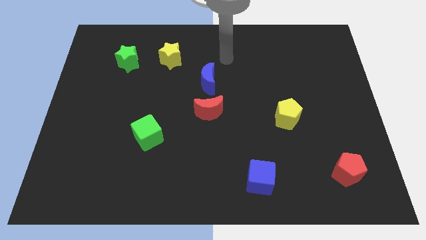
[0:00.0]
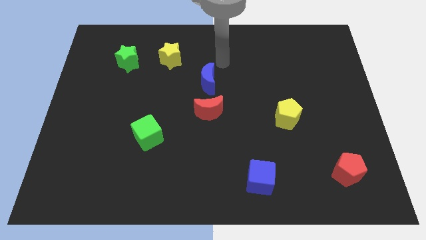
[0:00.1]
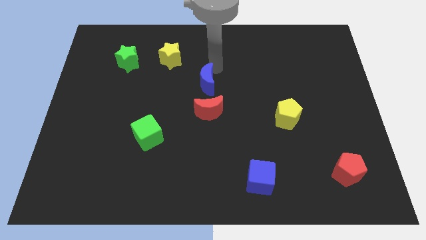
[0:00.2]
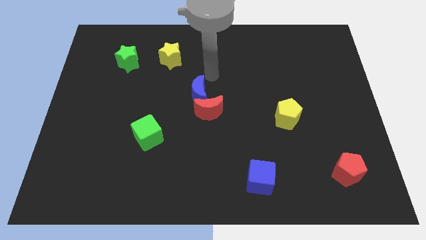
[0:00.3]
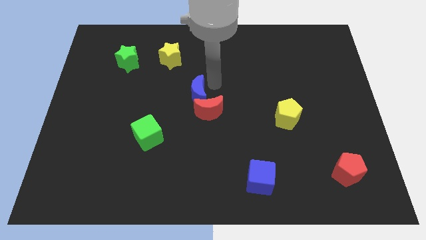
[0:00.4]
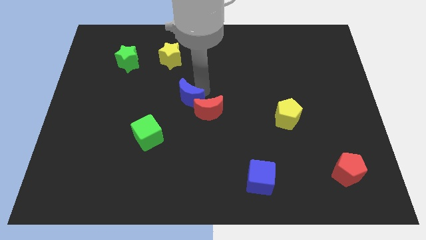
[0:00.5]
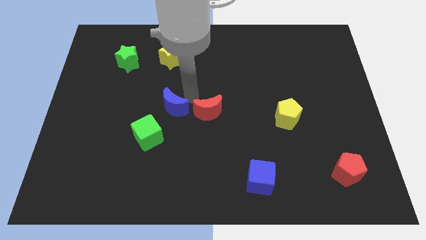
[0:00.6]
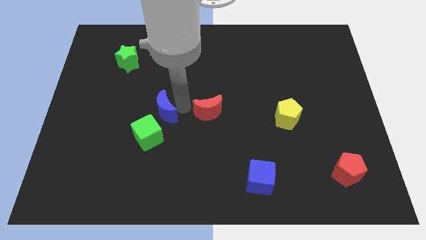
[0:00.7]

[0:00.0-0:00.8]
separate the red moon from the blue moon

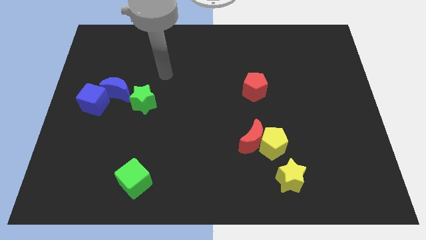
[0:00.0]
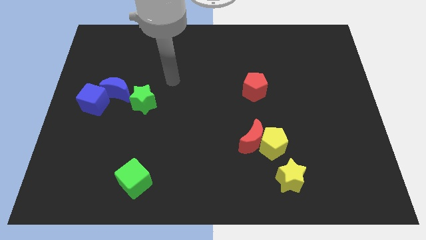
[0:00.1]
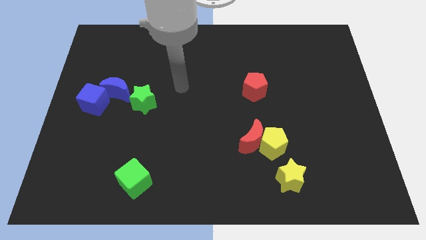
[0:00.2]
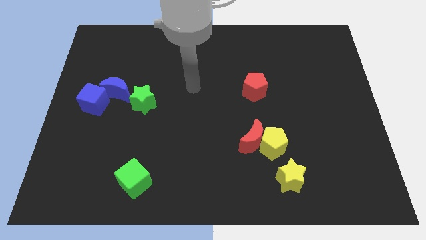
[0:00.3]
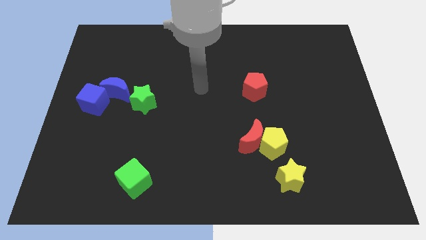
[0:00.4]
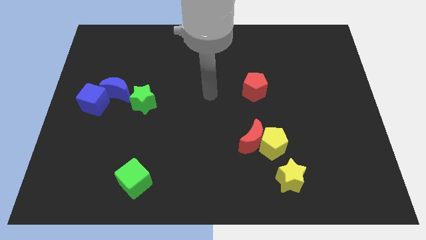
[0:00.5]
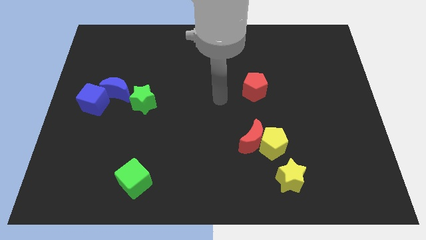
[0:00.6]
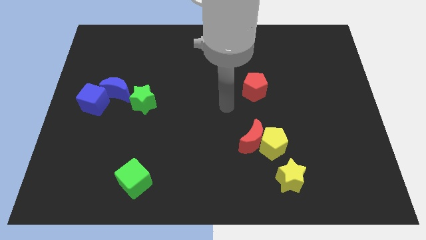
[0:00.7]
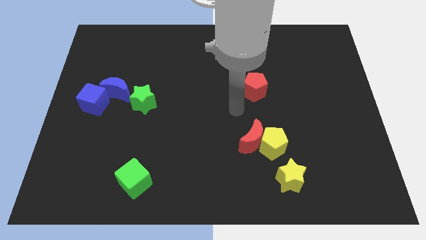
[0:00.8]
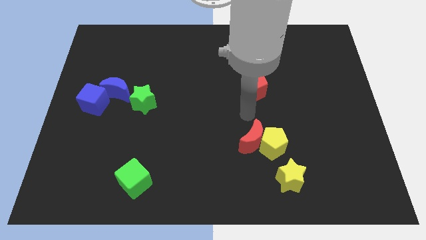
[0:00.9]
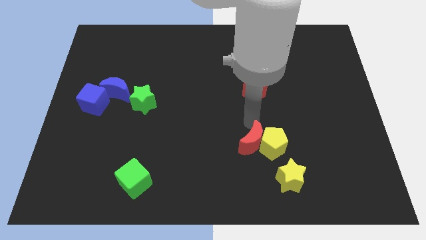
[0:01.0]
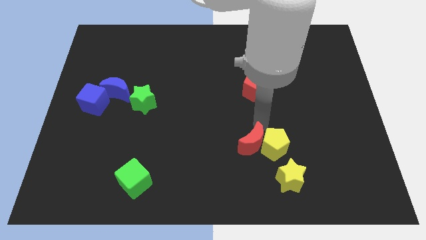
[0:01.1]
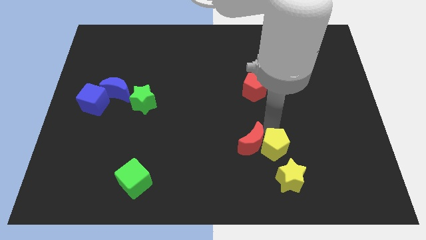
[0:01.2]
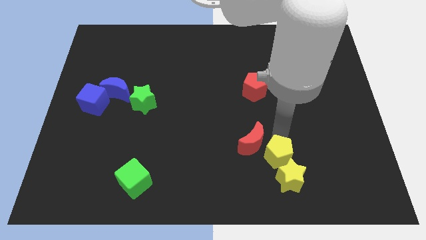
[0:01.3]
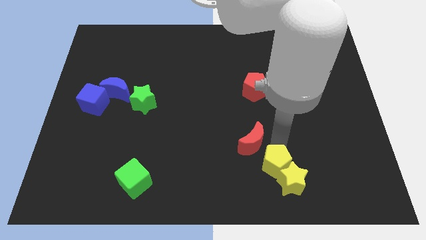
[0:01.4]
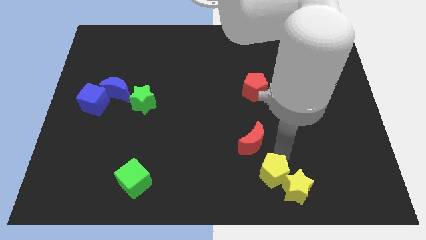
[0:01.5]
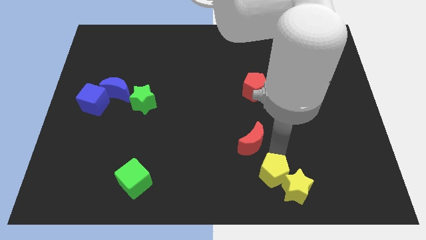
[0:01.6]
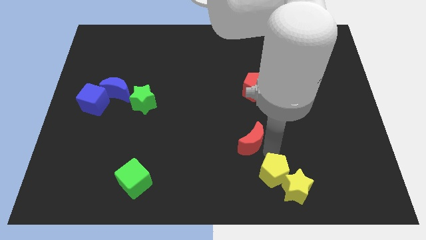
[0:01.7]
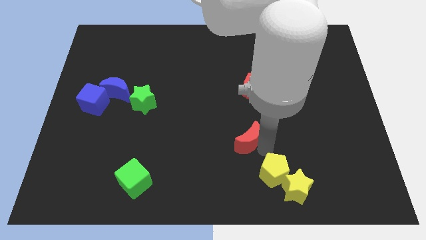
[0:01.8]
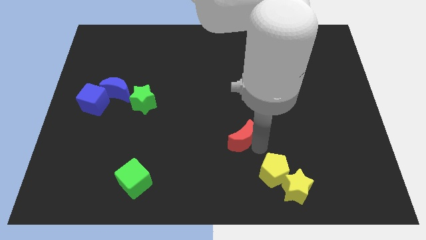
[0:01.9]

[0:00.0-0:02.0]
separate the red moon from the yellow pentagon

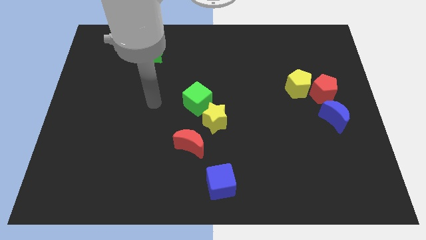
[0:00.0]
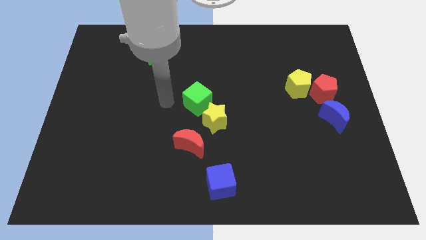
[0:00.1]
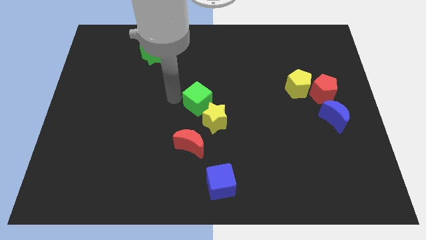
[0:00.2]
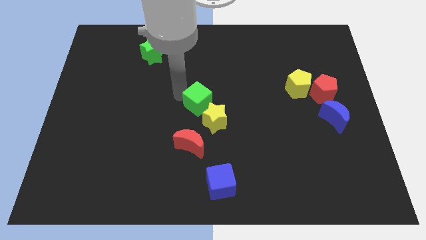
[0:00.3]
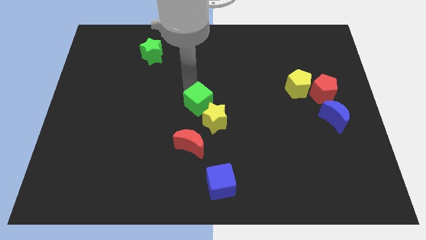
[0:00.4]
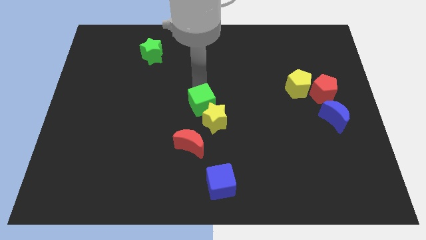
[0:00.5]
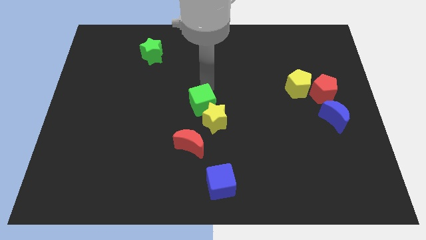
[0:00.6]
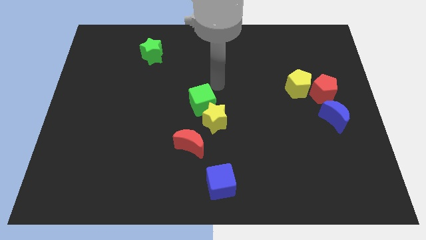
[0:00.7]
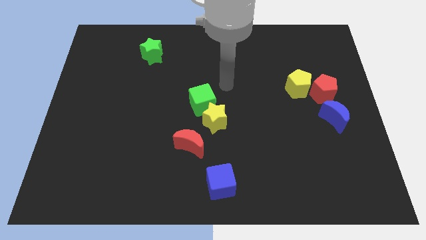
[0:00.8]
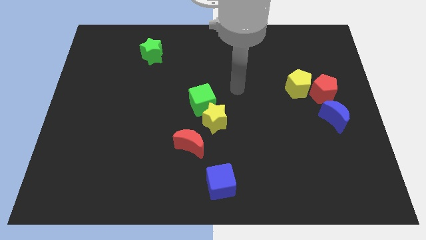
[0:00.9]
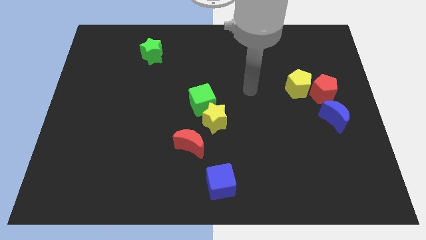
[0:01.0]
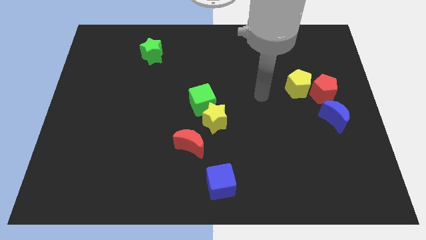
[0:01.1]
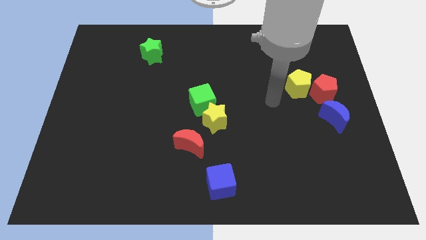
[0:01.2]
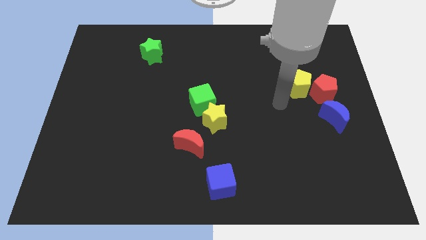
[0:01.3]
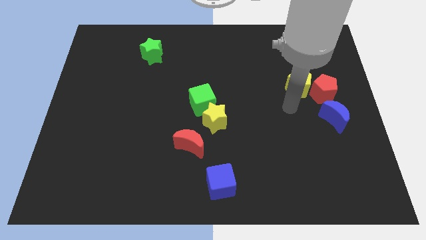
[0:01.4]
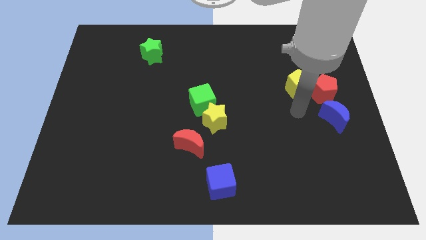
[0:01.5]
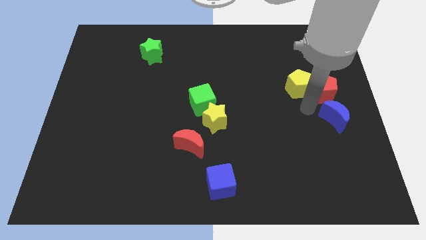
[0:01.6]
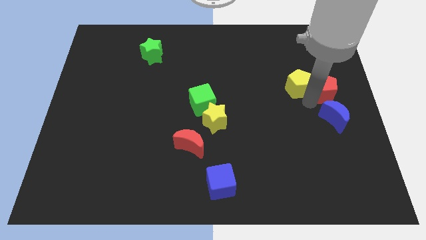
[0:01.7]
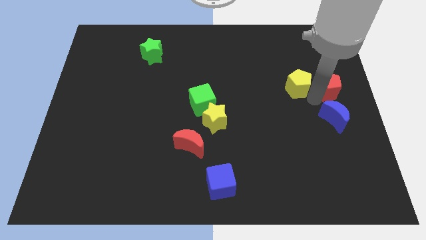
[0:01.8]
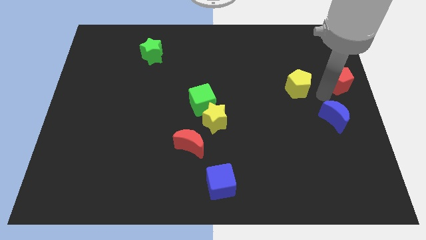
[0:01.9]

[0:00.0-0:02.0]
separate the yellow pentagon from the red pentagon

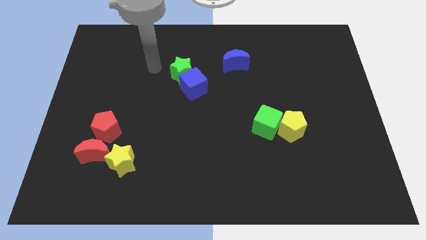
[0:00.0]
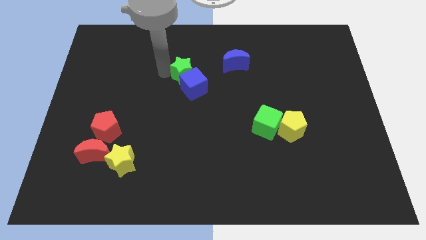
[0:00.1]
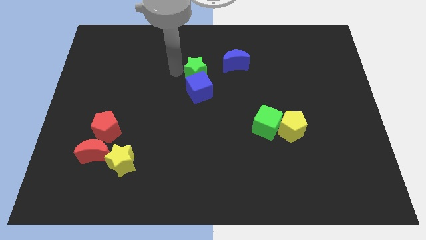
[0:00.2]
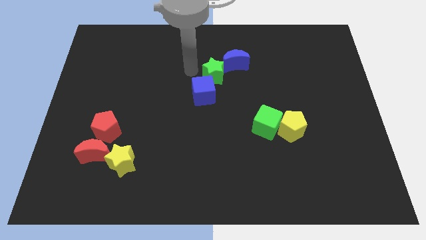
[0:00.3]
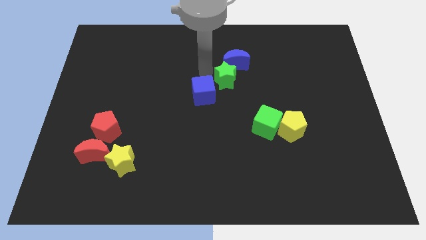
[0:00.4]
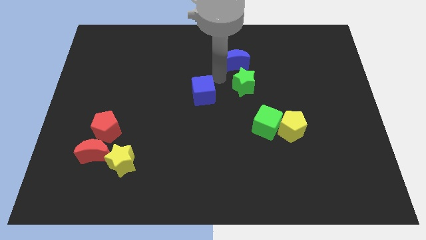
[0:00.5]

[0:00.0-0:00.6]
move the blue cube away from the green star

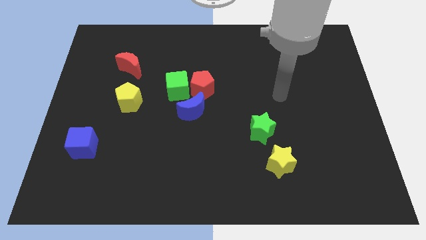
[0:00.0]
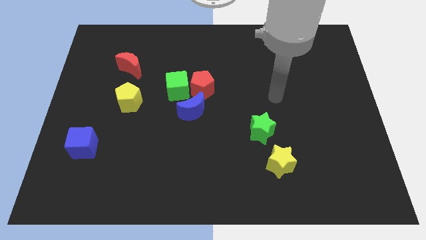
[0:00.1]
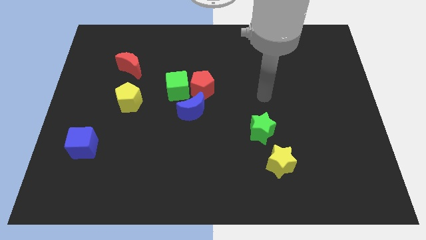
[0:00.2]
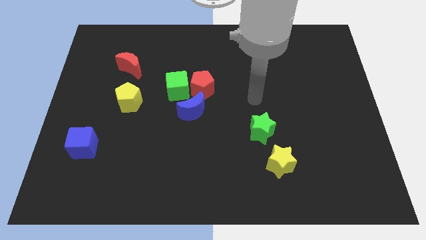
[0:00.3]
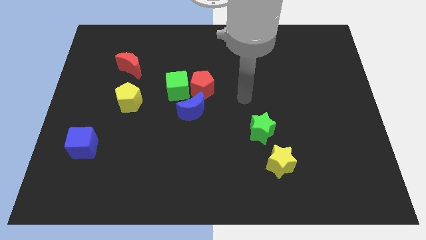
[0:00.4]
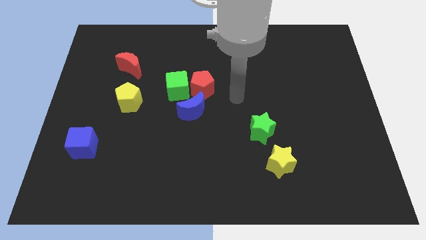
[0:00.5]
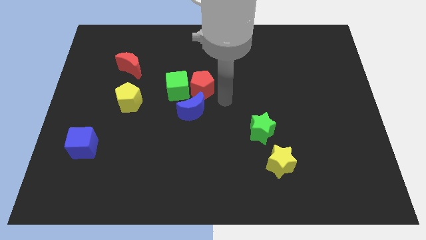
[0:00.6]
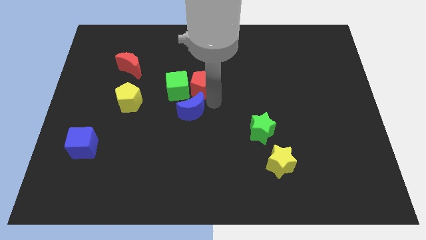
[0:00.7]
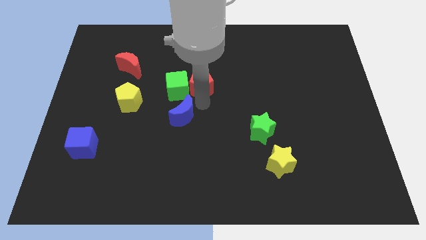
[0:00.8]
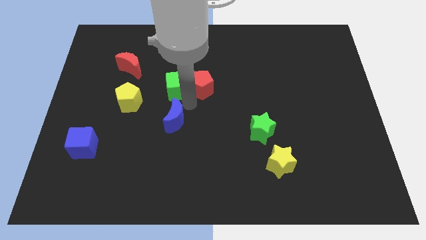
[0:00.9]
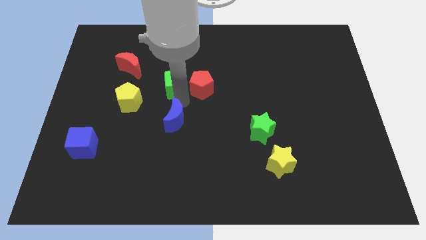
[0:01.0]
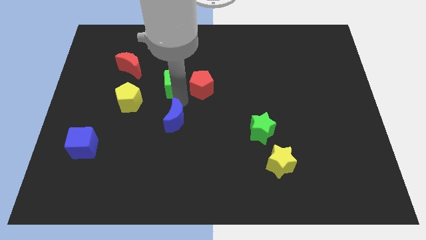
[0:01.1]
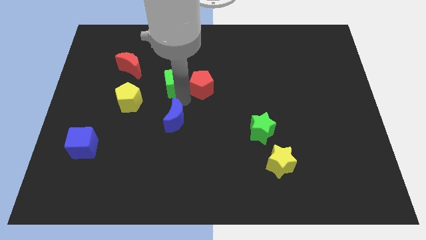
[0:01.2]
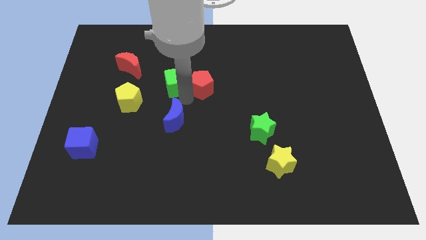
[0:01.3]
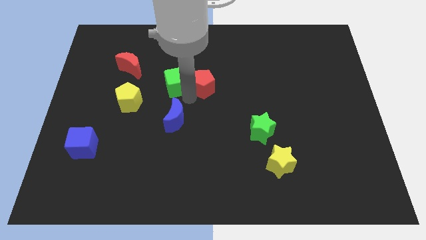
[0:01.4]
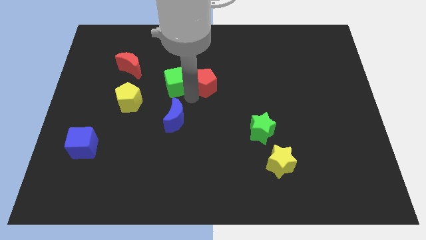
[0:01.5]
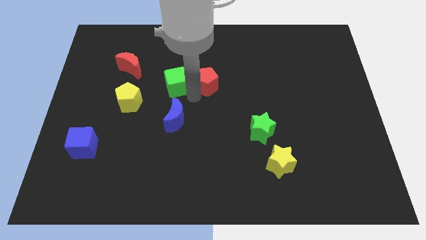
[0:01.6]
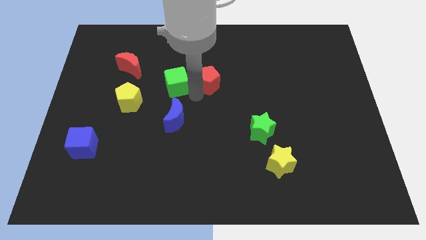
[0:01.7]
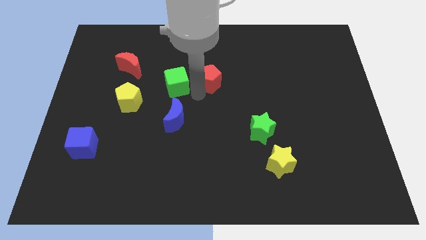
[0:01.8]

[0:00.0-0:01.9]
move the red pentagon away from the green cube and blue moon

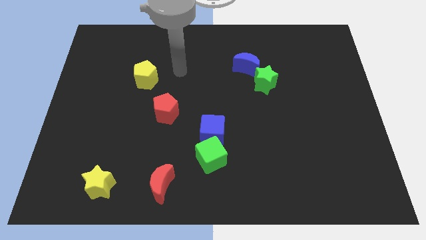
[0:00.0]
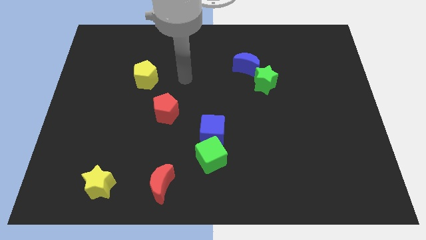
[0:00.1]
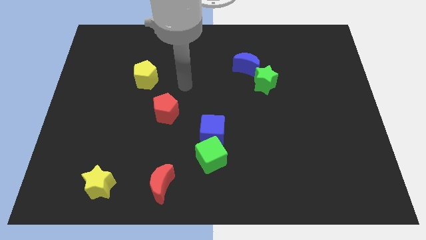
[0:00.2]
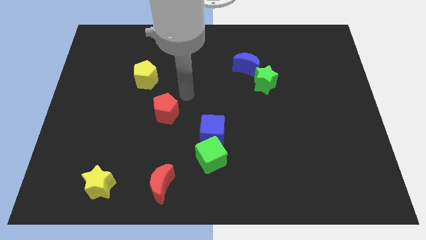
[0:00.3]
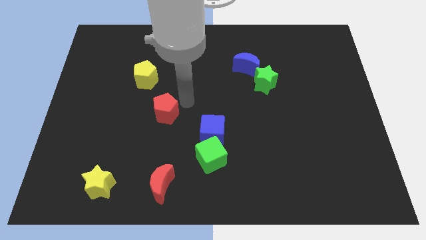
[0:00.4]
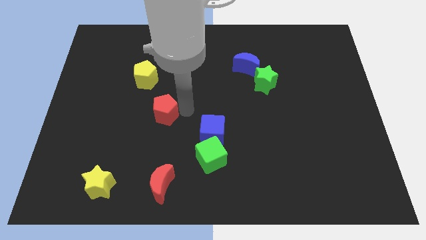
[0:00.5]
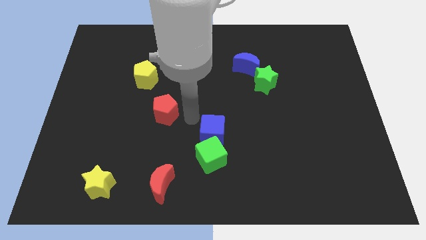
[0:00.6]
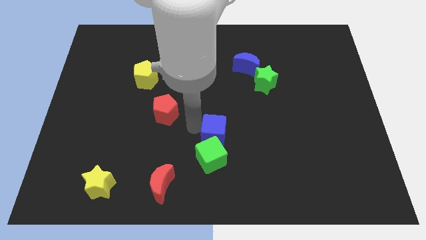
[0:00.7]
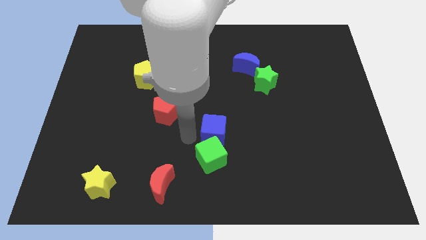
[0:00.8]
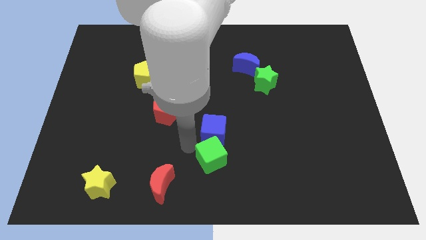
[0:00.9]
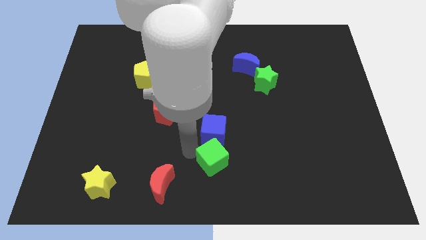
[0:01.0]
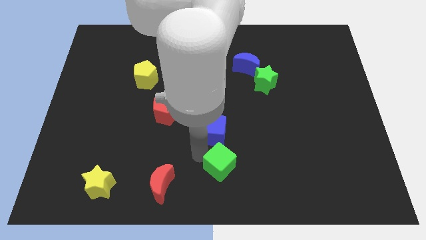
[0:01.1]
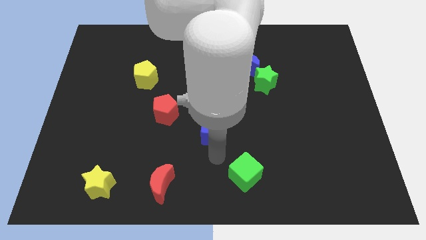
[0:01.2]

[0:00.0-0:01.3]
separate the blue cube from the green cube

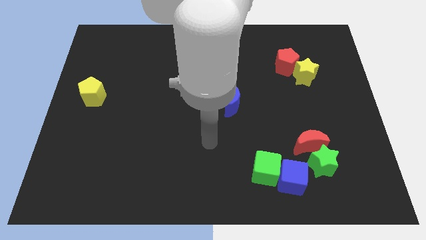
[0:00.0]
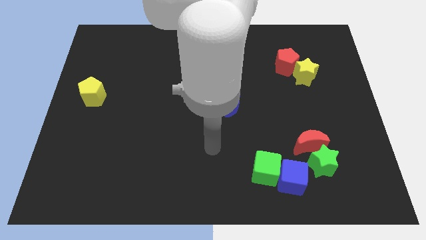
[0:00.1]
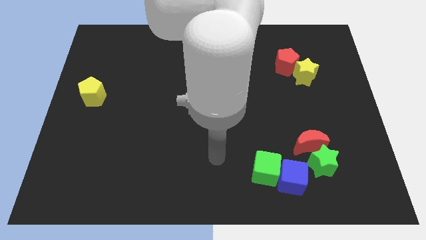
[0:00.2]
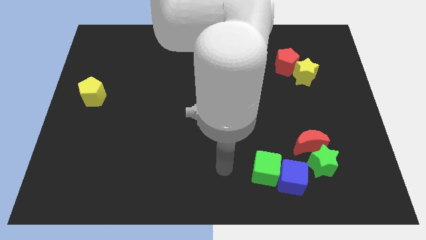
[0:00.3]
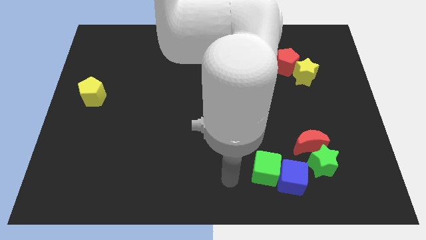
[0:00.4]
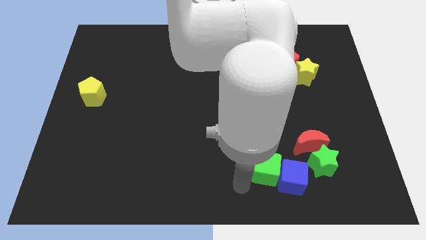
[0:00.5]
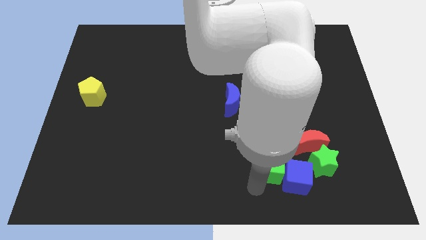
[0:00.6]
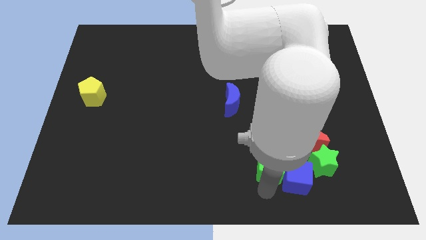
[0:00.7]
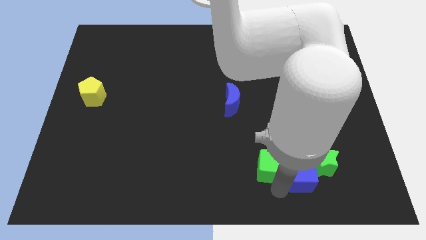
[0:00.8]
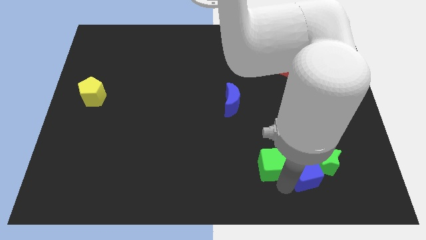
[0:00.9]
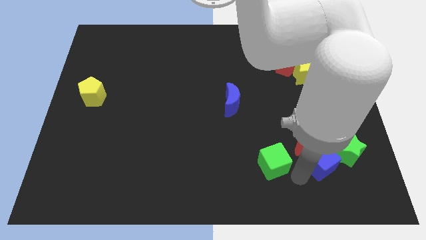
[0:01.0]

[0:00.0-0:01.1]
move the green cube away from the blue cube
